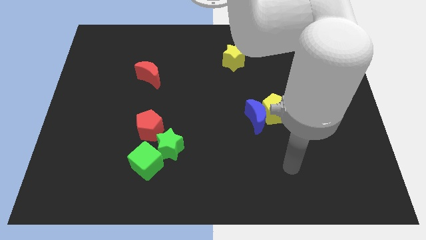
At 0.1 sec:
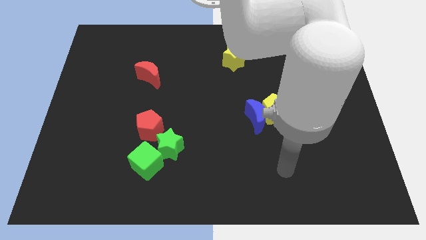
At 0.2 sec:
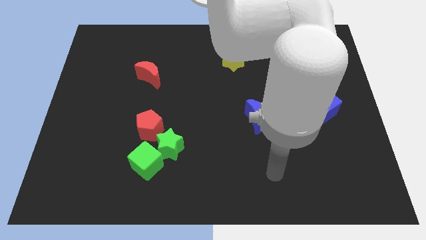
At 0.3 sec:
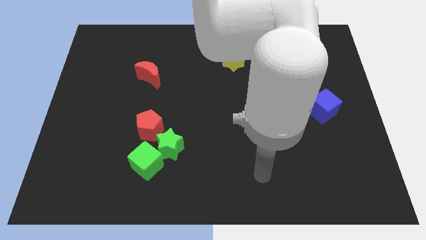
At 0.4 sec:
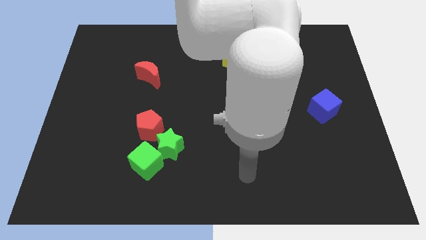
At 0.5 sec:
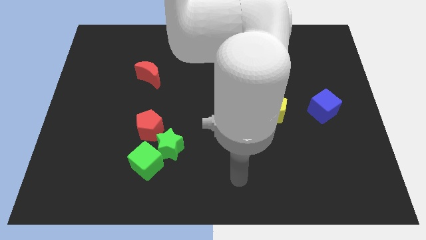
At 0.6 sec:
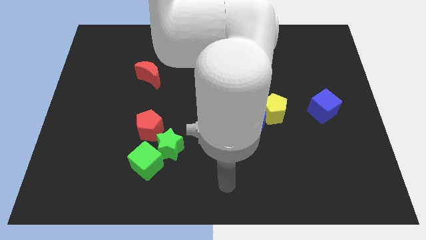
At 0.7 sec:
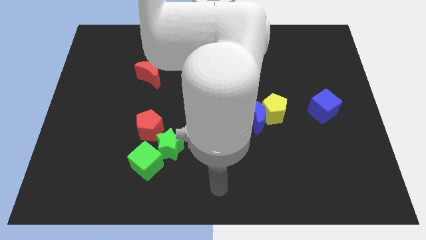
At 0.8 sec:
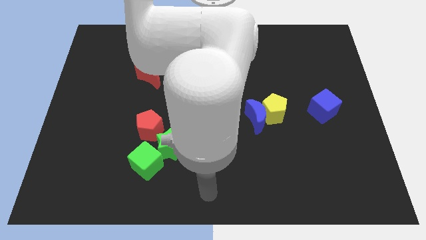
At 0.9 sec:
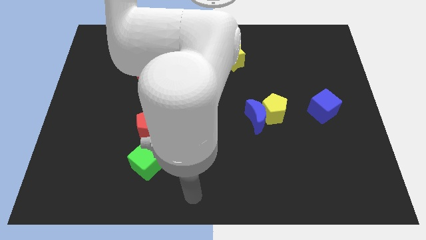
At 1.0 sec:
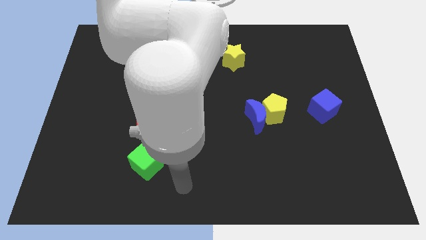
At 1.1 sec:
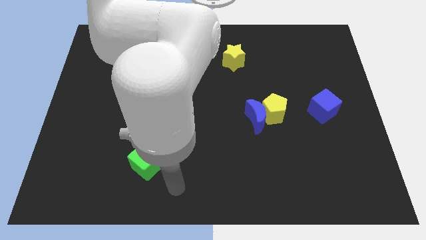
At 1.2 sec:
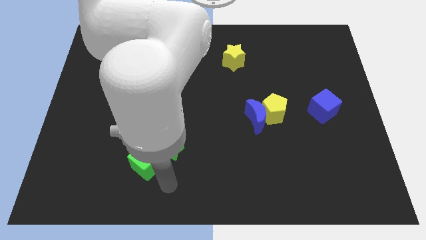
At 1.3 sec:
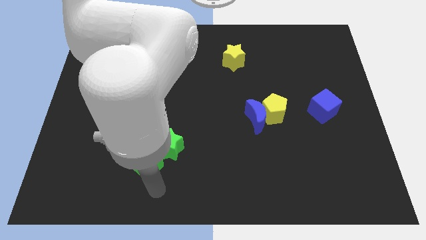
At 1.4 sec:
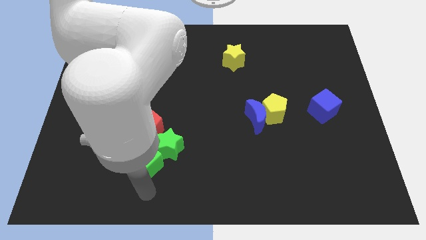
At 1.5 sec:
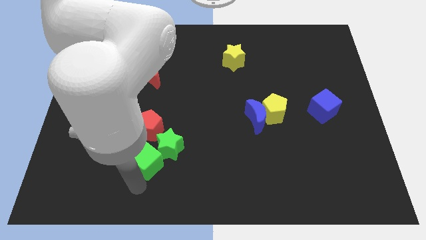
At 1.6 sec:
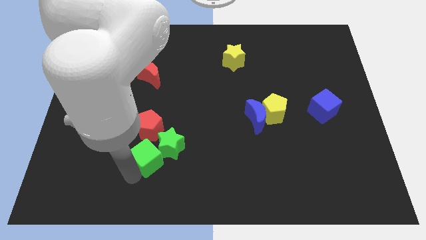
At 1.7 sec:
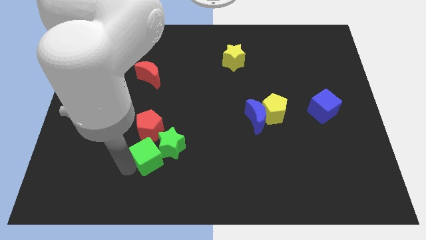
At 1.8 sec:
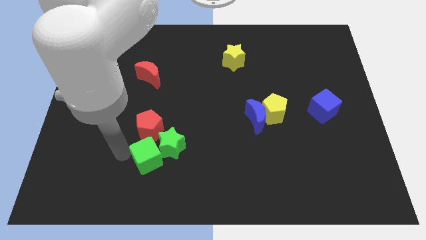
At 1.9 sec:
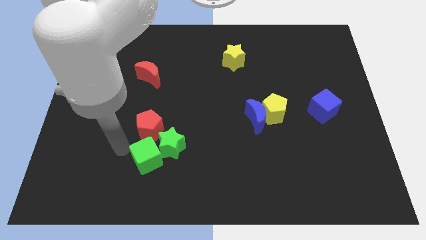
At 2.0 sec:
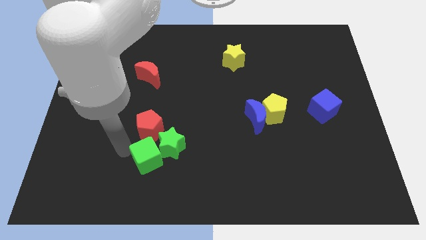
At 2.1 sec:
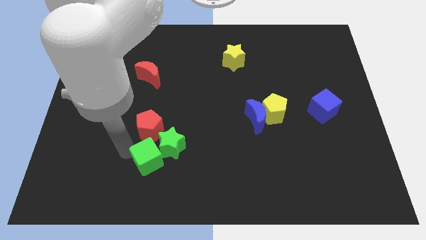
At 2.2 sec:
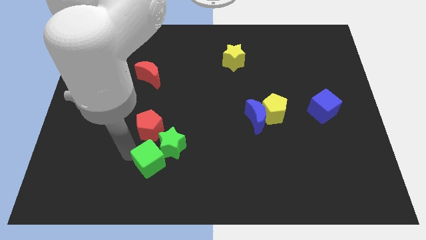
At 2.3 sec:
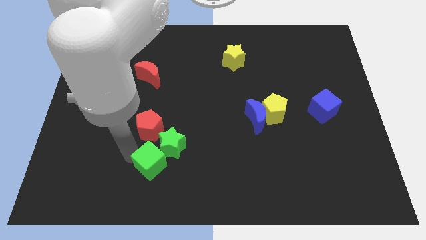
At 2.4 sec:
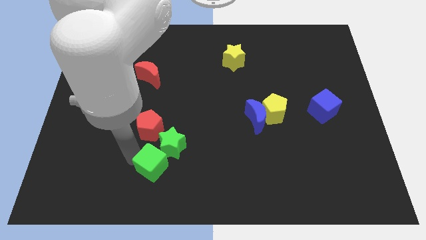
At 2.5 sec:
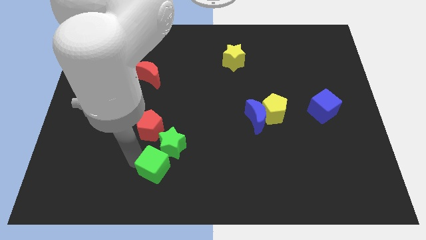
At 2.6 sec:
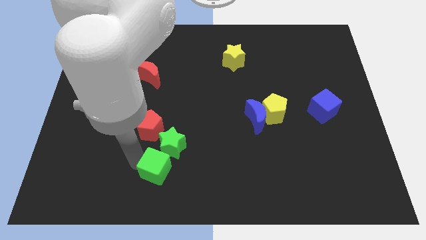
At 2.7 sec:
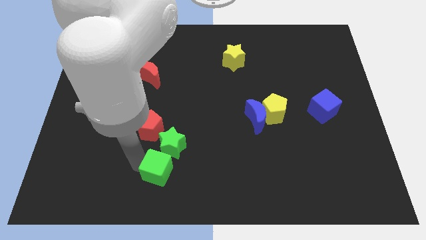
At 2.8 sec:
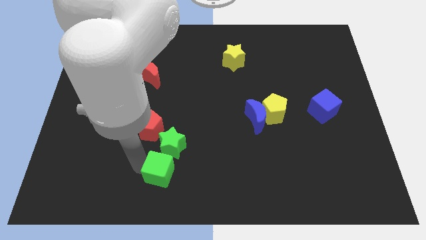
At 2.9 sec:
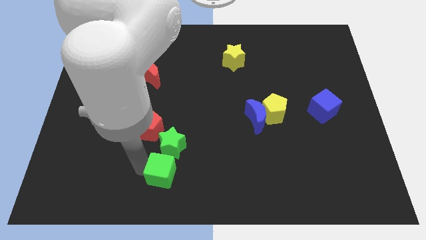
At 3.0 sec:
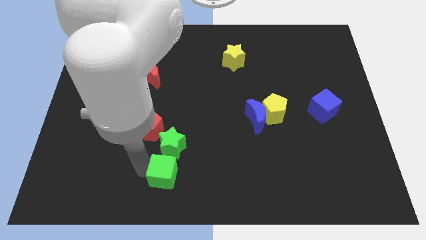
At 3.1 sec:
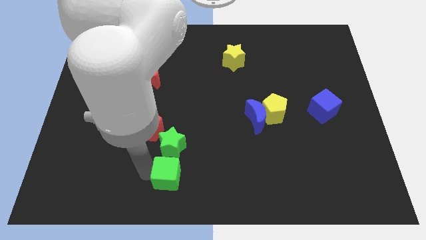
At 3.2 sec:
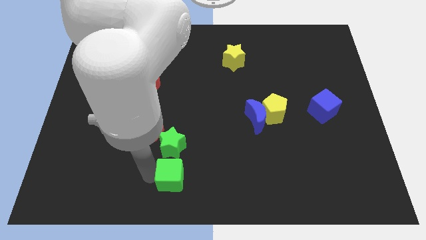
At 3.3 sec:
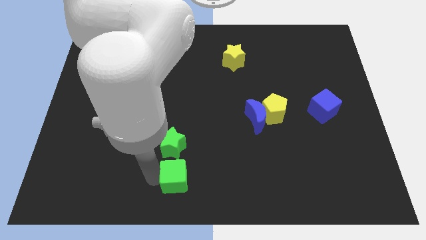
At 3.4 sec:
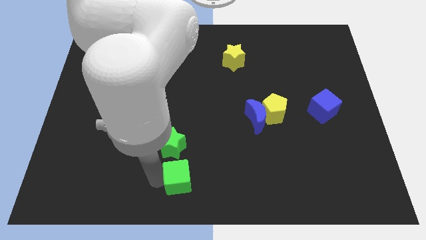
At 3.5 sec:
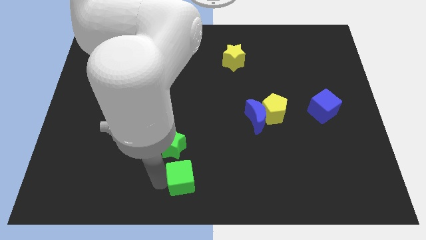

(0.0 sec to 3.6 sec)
move the green cube right a bit

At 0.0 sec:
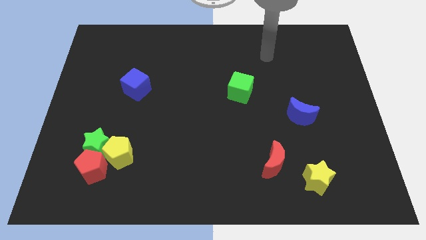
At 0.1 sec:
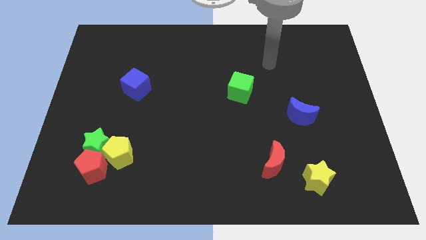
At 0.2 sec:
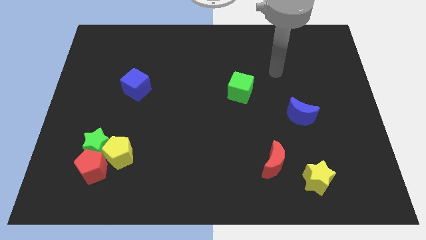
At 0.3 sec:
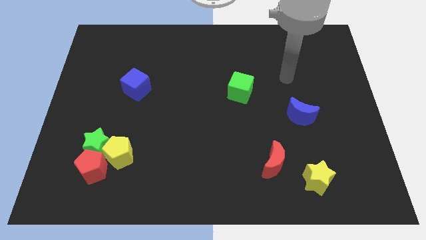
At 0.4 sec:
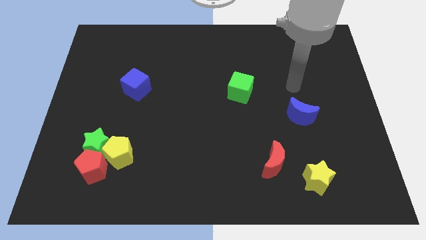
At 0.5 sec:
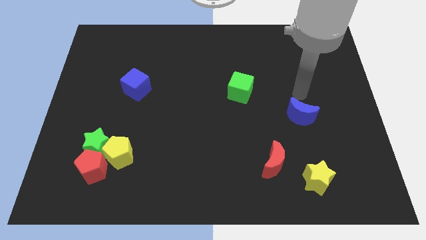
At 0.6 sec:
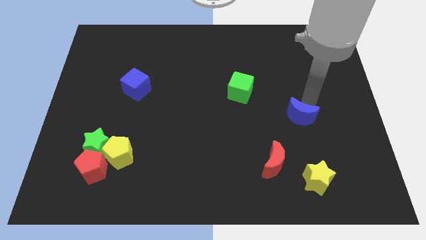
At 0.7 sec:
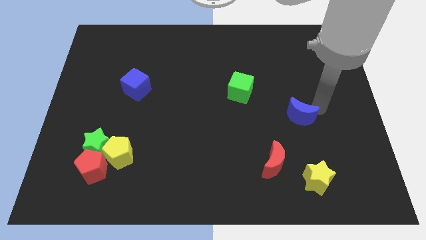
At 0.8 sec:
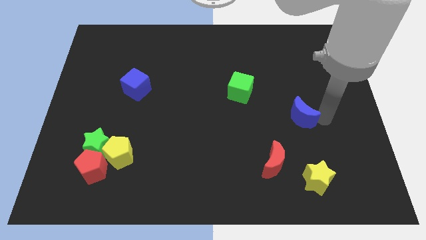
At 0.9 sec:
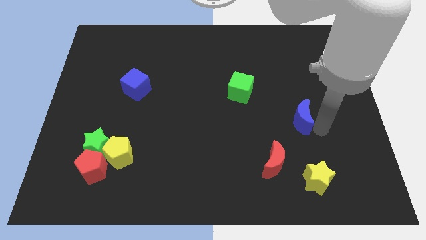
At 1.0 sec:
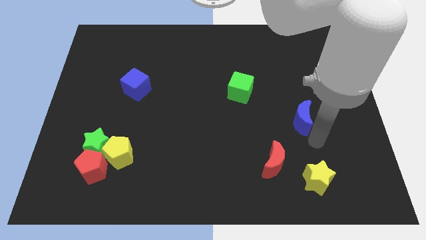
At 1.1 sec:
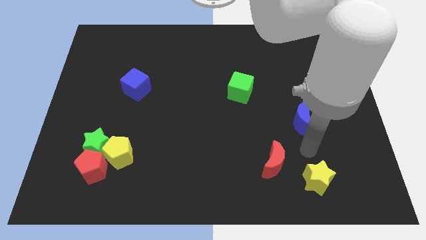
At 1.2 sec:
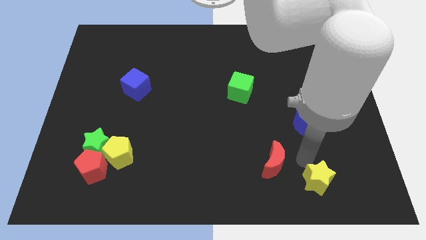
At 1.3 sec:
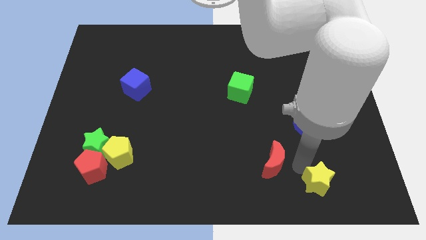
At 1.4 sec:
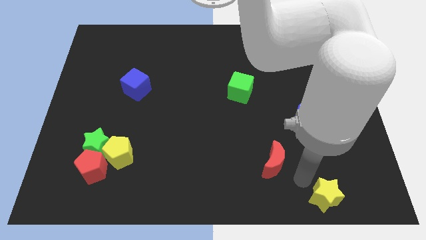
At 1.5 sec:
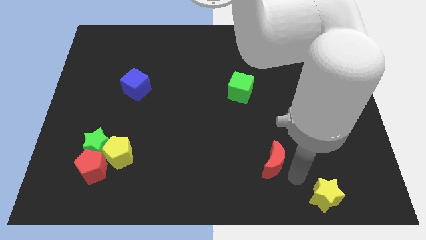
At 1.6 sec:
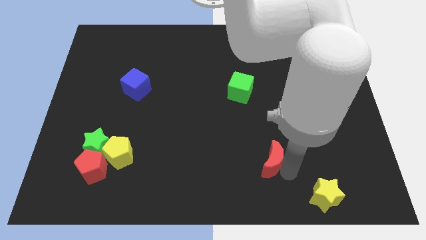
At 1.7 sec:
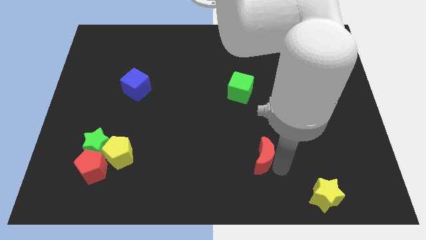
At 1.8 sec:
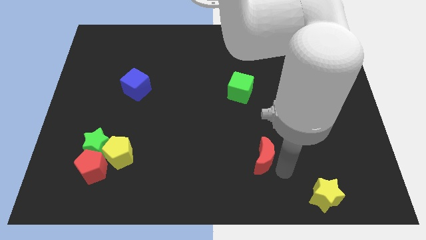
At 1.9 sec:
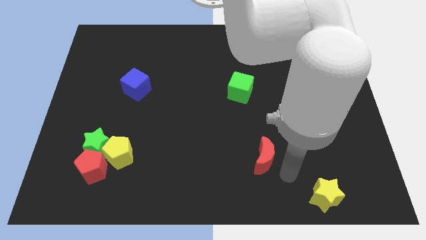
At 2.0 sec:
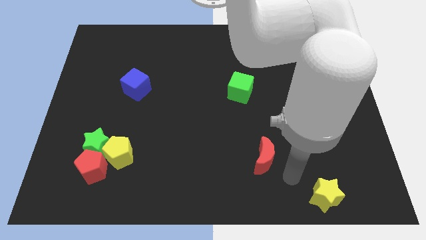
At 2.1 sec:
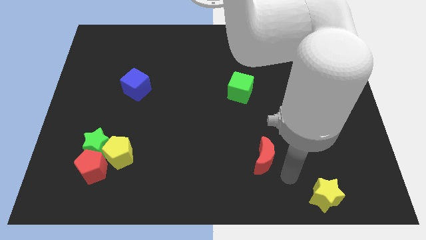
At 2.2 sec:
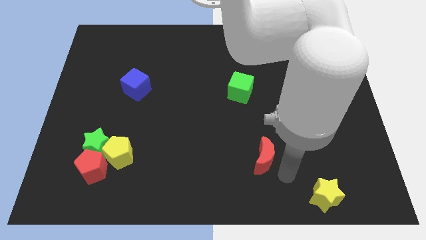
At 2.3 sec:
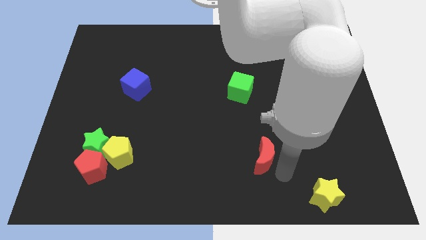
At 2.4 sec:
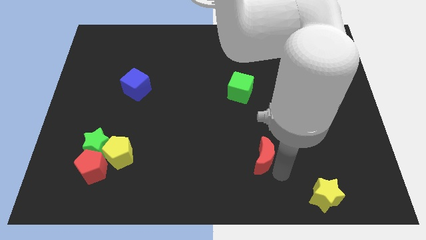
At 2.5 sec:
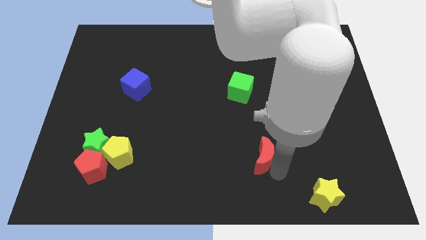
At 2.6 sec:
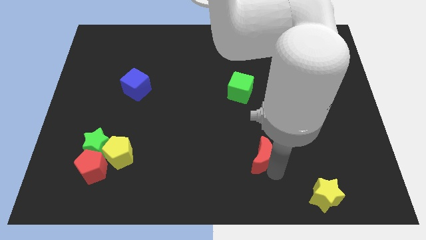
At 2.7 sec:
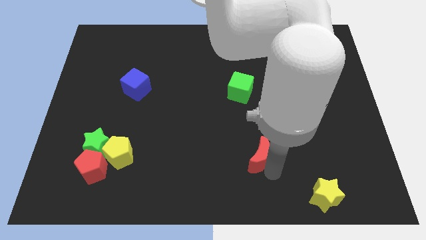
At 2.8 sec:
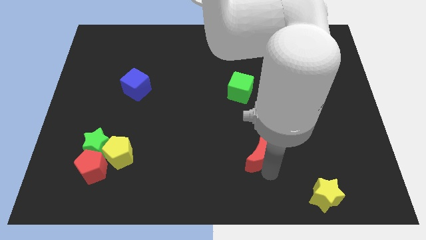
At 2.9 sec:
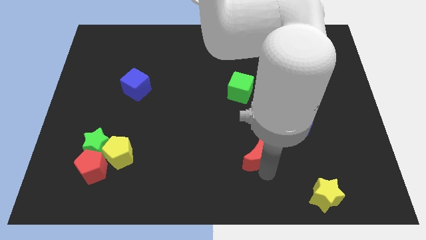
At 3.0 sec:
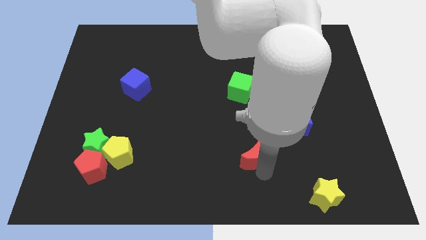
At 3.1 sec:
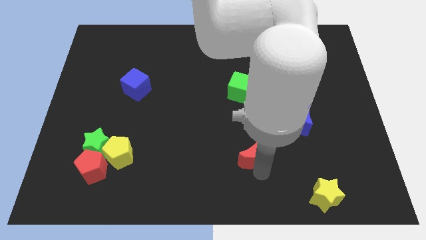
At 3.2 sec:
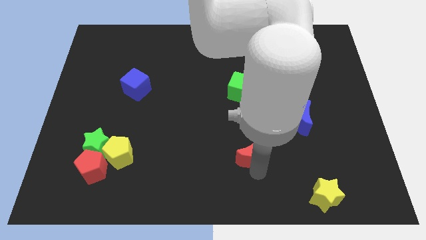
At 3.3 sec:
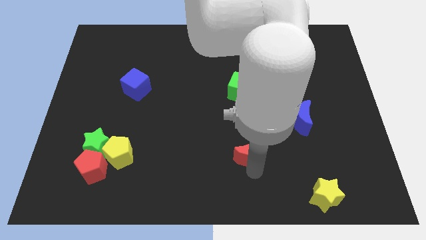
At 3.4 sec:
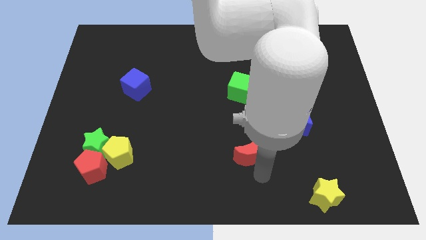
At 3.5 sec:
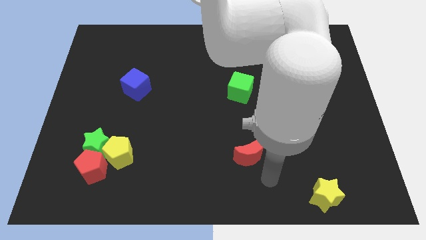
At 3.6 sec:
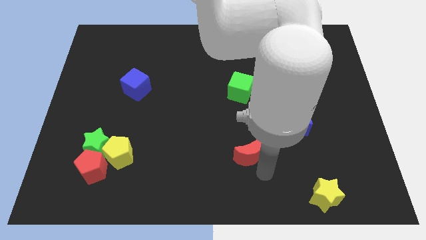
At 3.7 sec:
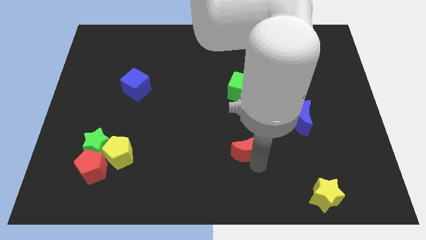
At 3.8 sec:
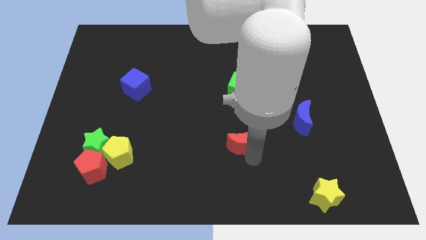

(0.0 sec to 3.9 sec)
move the red moon diagonally up and to the left a bit

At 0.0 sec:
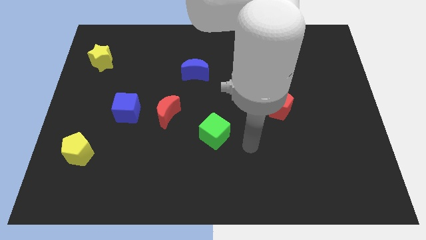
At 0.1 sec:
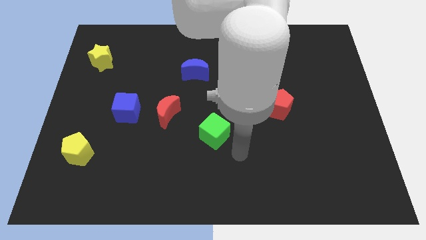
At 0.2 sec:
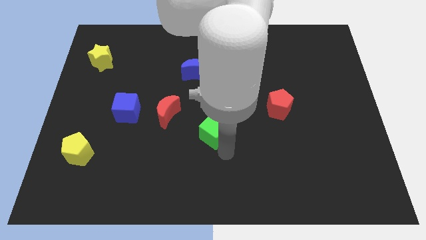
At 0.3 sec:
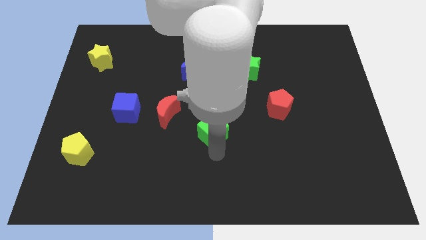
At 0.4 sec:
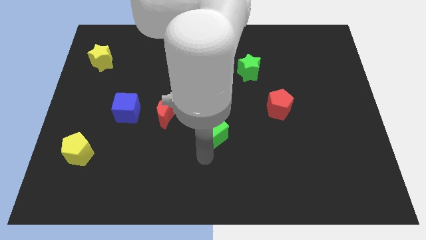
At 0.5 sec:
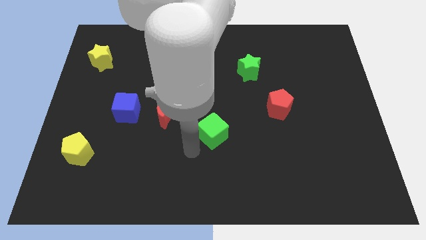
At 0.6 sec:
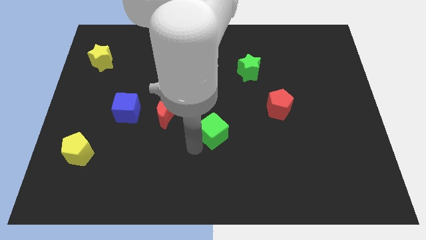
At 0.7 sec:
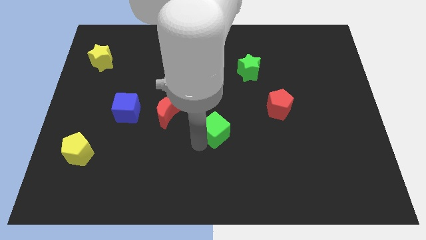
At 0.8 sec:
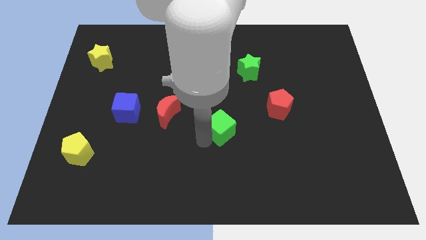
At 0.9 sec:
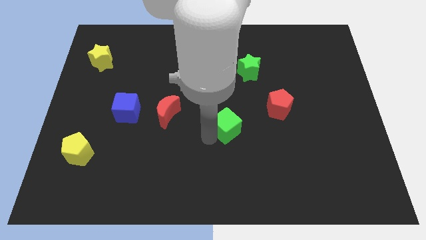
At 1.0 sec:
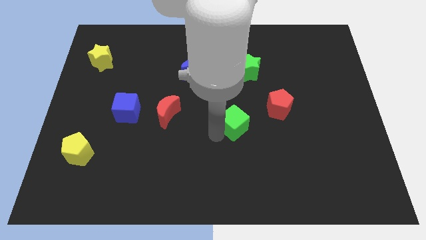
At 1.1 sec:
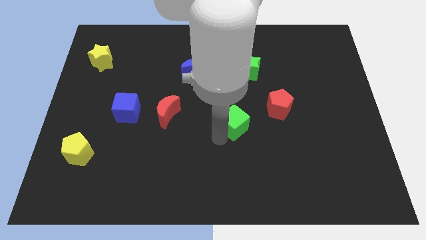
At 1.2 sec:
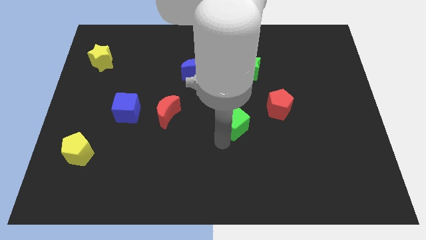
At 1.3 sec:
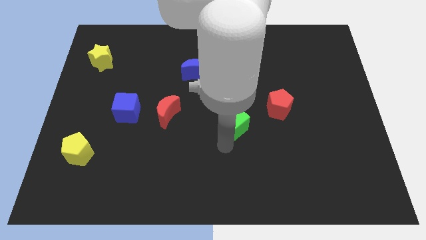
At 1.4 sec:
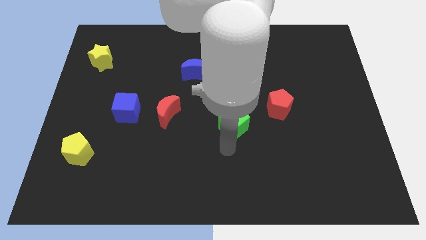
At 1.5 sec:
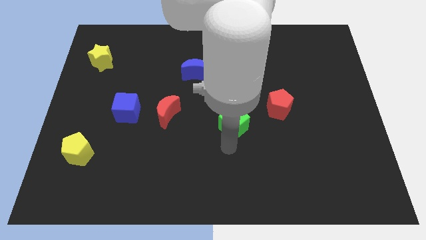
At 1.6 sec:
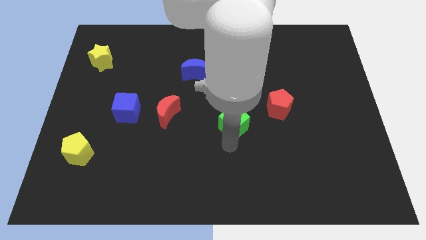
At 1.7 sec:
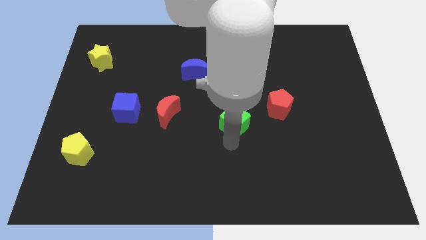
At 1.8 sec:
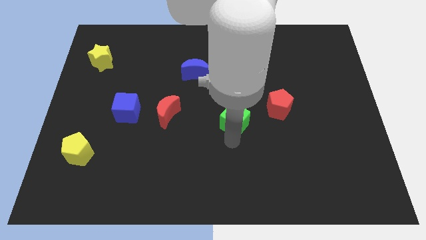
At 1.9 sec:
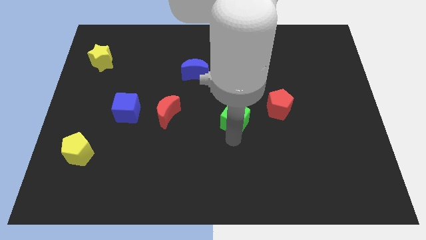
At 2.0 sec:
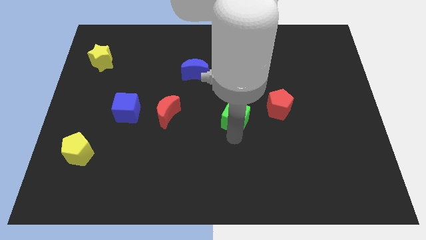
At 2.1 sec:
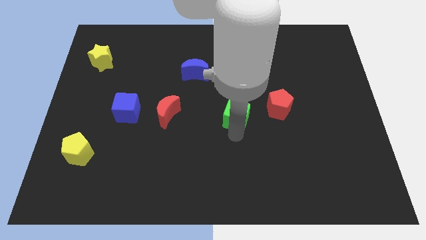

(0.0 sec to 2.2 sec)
move the green cube upwards and then to the right a little bit
